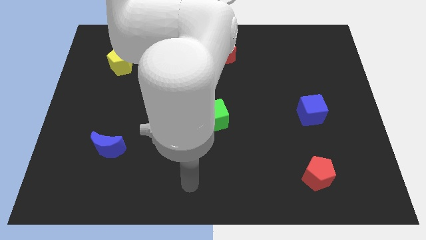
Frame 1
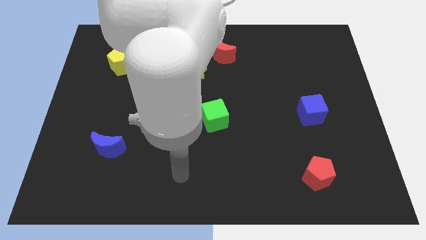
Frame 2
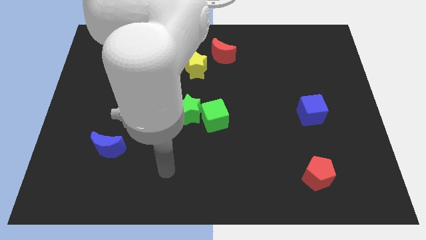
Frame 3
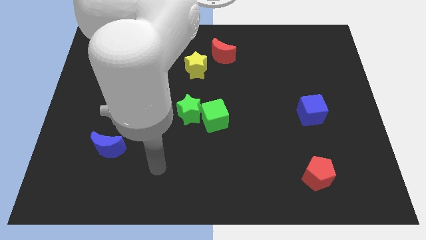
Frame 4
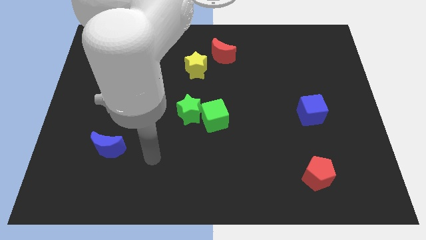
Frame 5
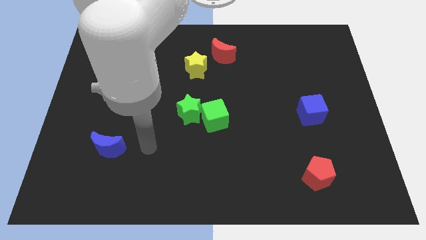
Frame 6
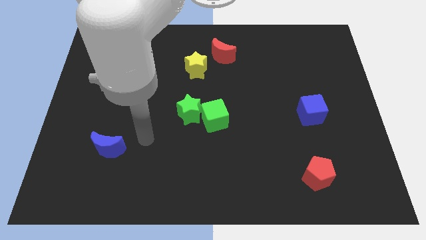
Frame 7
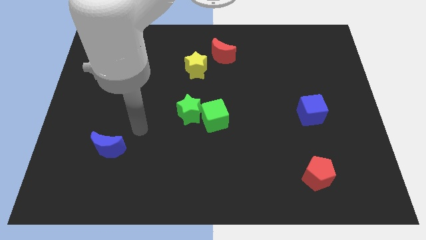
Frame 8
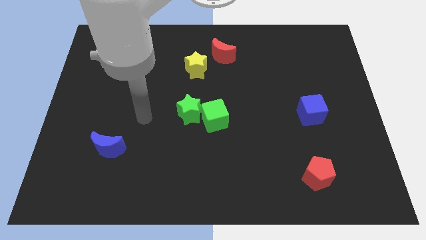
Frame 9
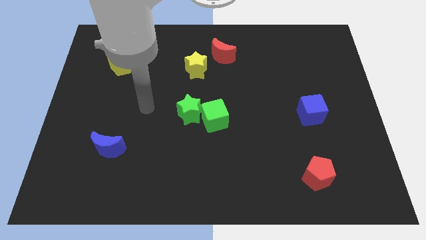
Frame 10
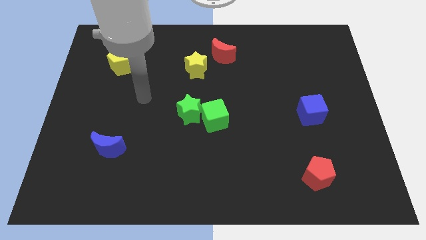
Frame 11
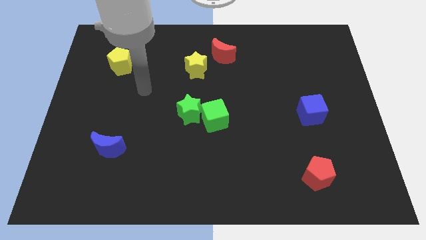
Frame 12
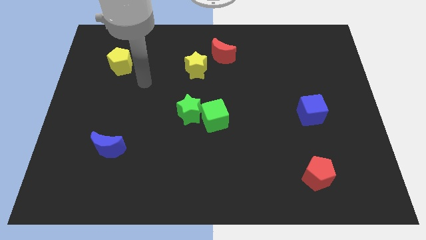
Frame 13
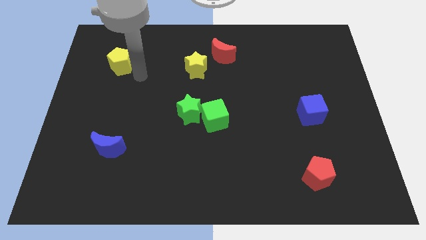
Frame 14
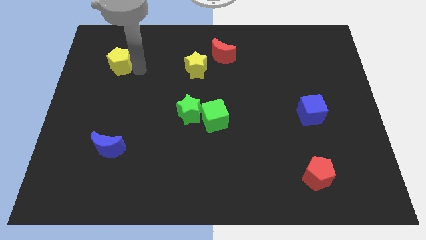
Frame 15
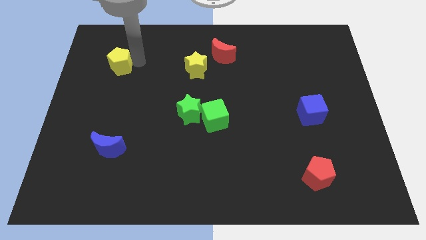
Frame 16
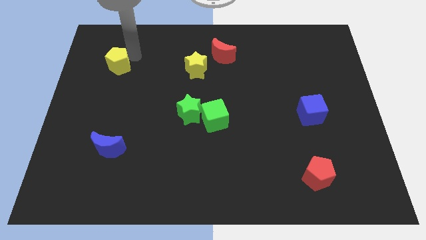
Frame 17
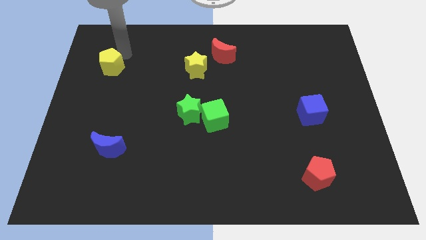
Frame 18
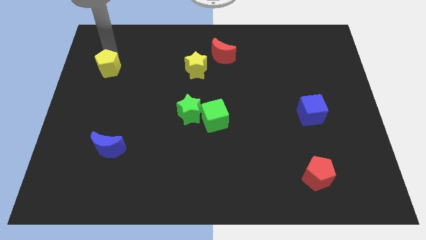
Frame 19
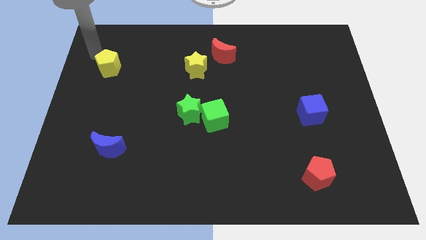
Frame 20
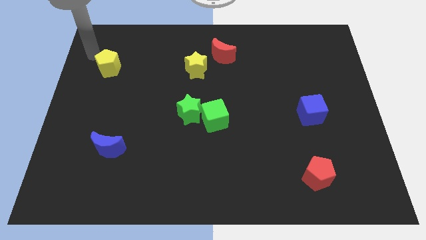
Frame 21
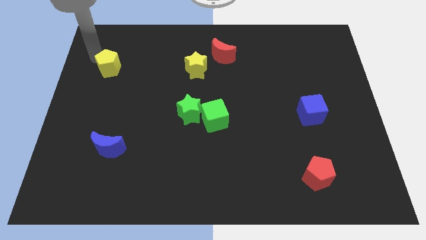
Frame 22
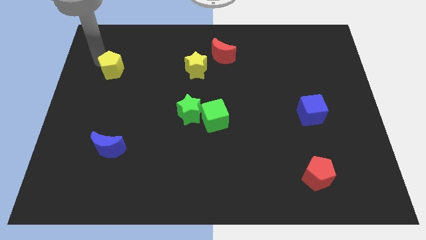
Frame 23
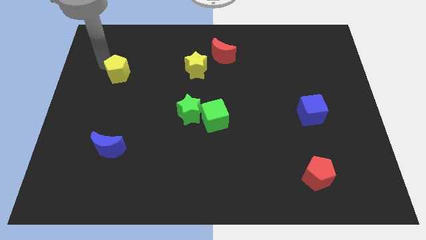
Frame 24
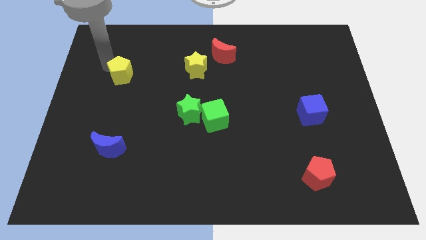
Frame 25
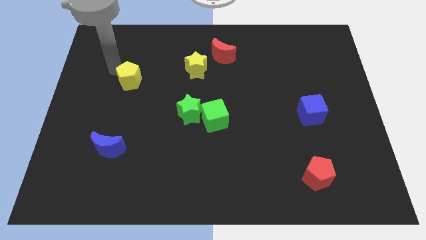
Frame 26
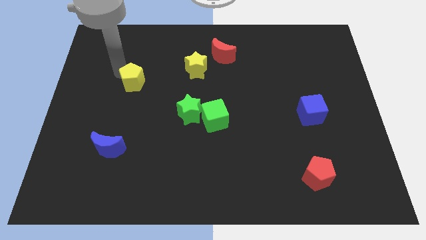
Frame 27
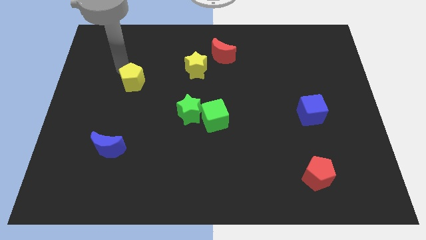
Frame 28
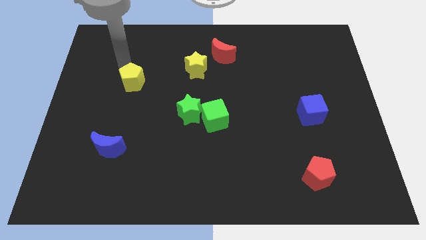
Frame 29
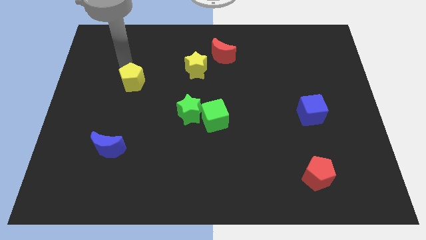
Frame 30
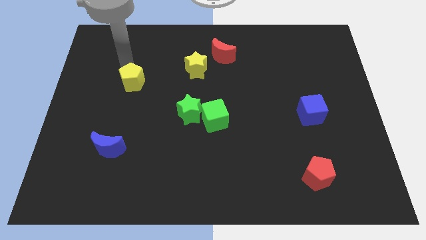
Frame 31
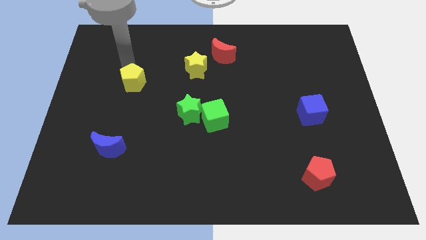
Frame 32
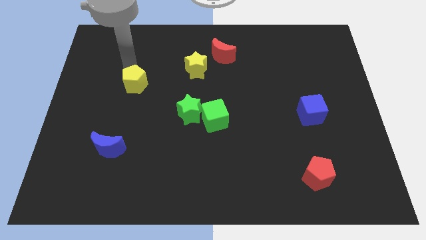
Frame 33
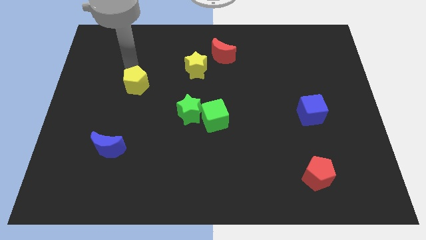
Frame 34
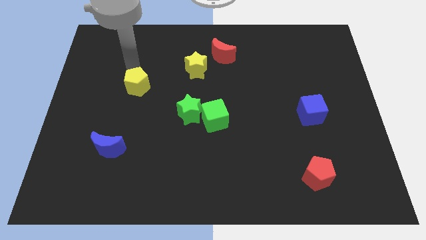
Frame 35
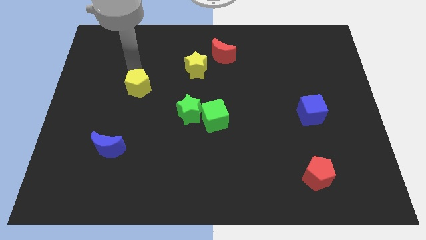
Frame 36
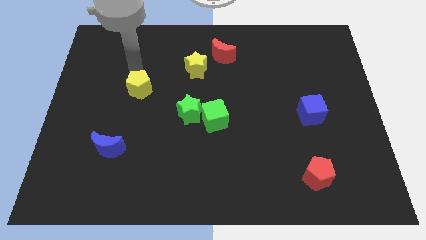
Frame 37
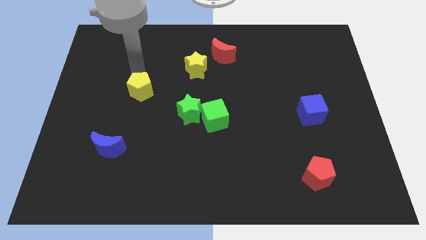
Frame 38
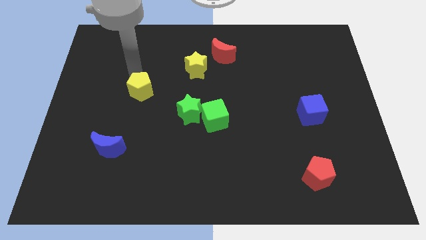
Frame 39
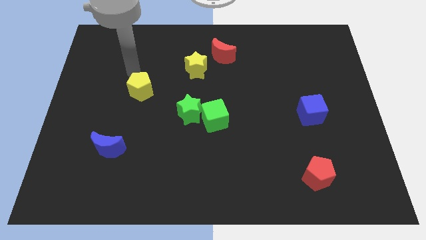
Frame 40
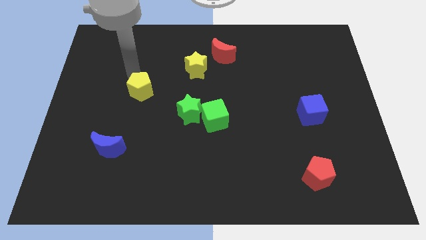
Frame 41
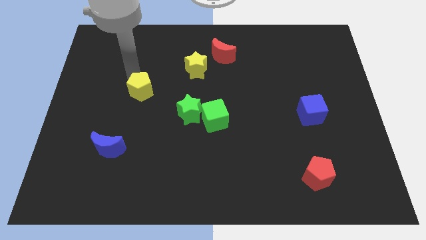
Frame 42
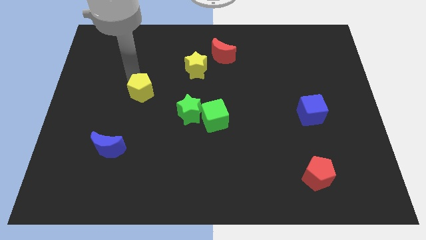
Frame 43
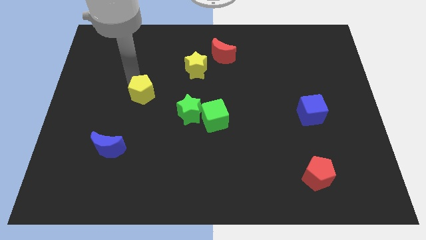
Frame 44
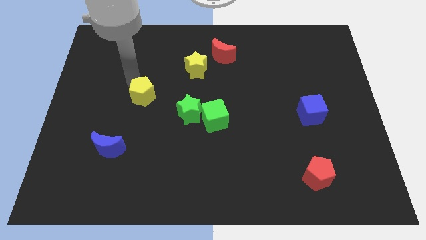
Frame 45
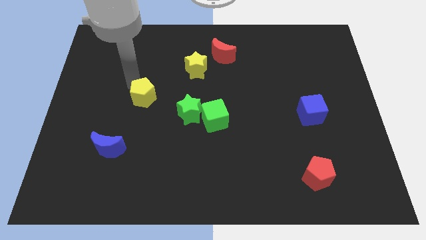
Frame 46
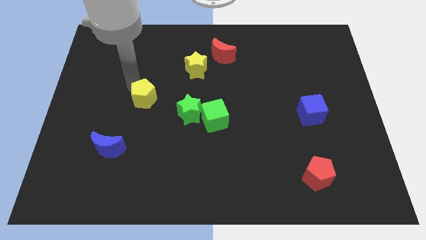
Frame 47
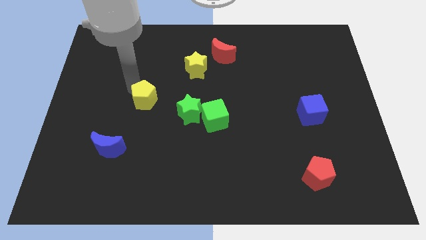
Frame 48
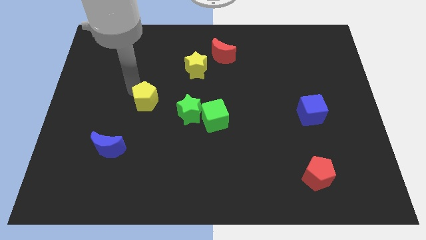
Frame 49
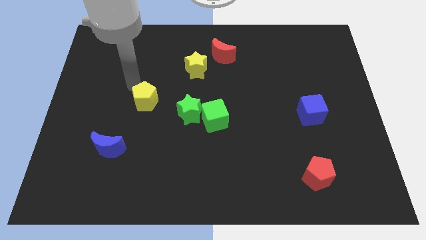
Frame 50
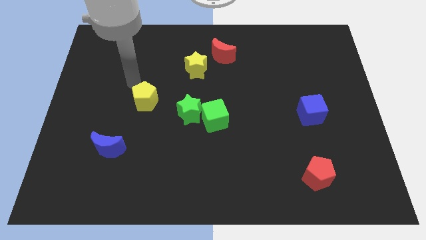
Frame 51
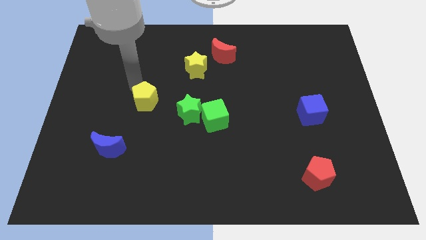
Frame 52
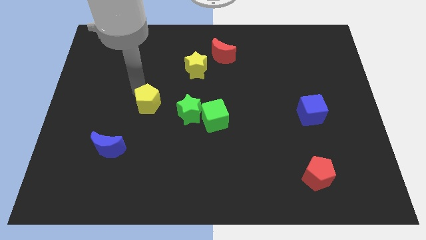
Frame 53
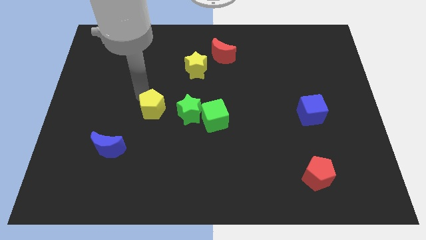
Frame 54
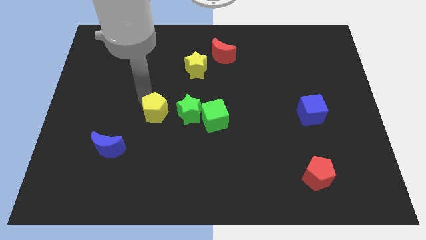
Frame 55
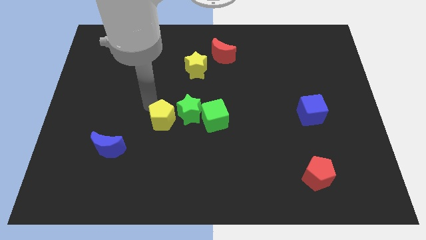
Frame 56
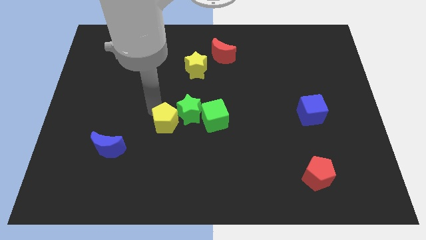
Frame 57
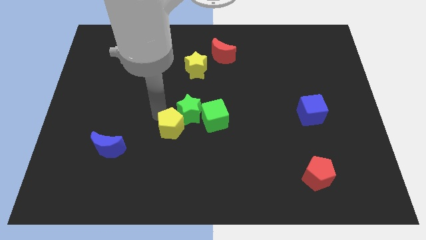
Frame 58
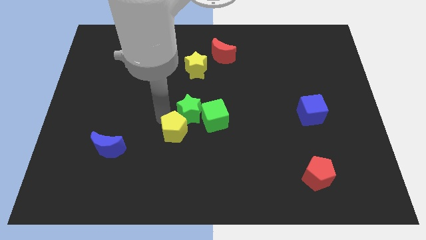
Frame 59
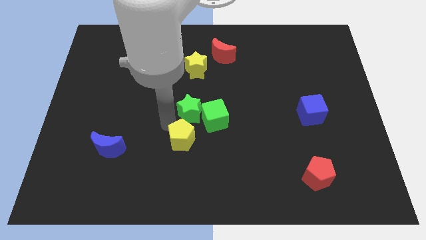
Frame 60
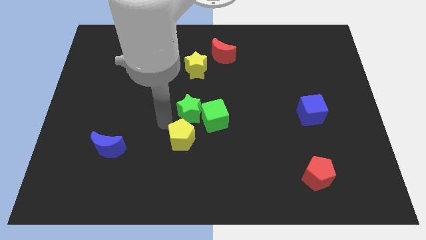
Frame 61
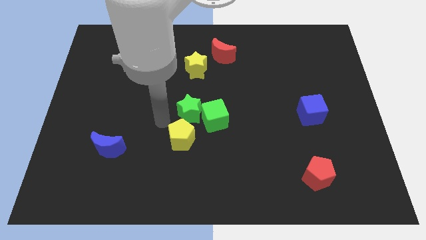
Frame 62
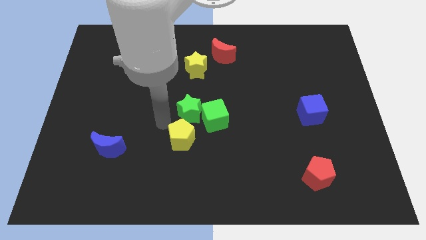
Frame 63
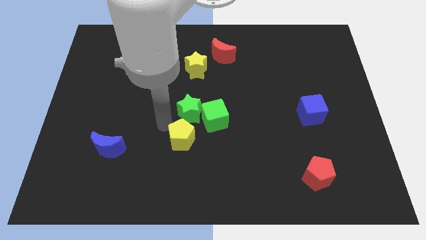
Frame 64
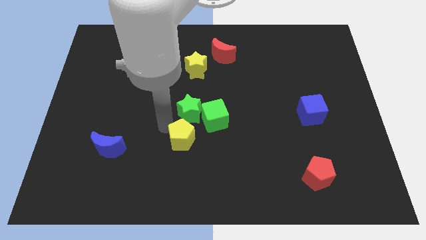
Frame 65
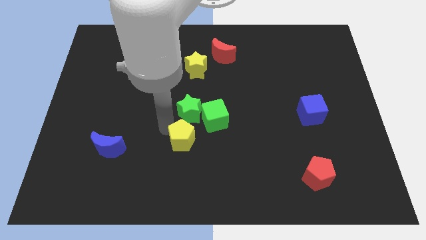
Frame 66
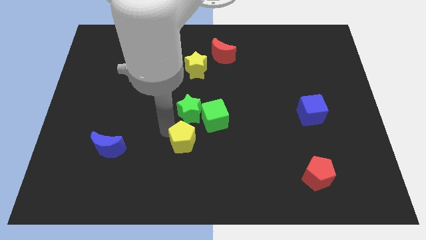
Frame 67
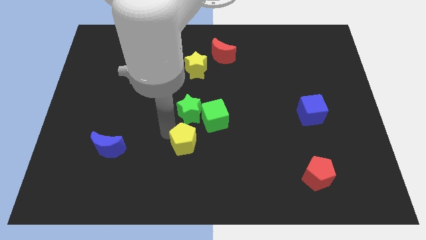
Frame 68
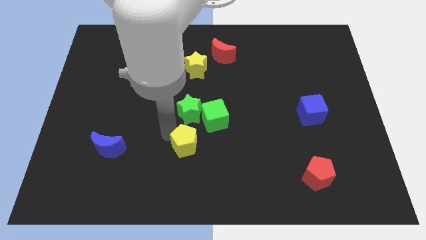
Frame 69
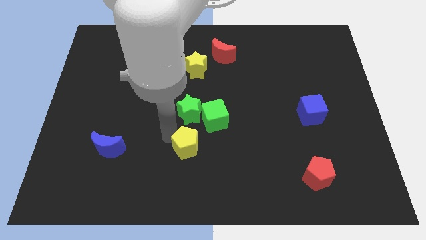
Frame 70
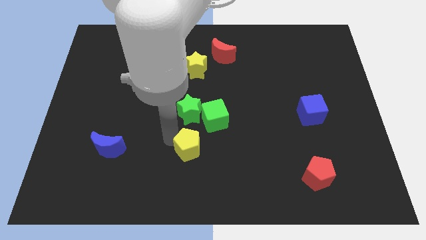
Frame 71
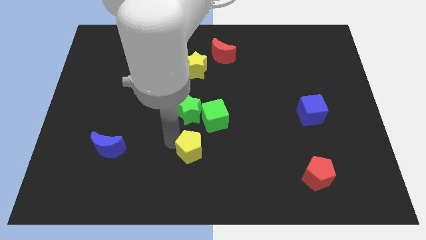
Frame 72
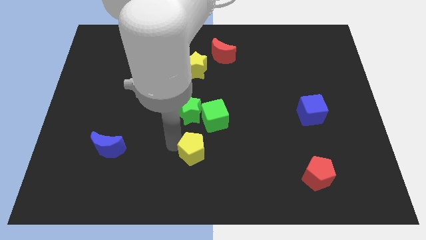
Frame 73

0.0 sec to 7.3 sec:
move the yellow pentagon to the bottom of the green cube
